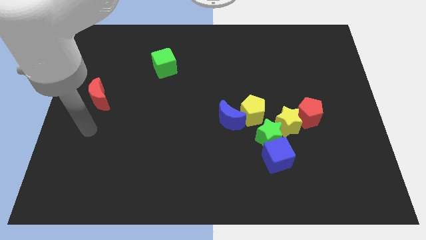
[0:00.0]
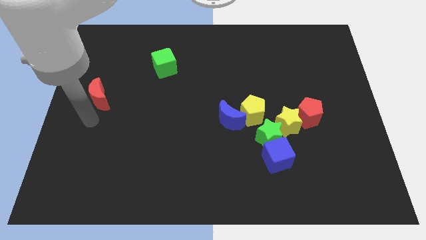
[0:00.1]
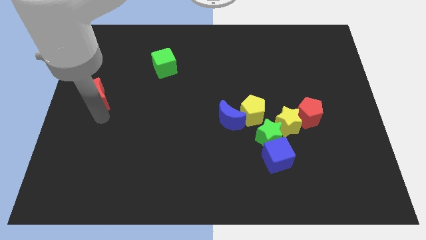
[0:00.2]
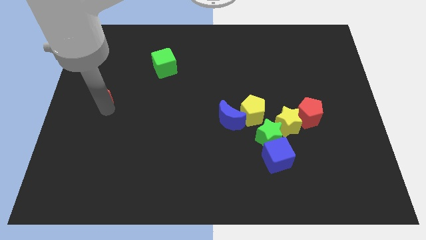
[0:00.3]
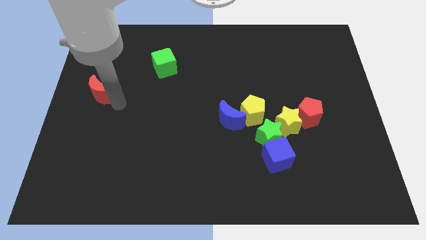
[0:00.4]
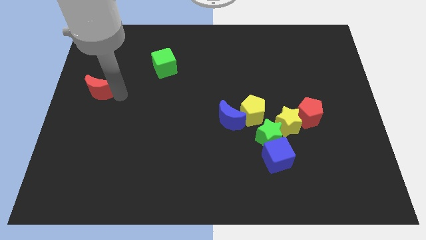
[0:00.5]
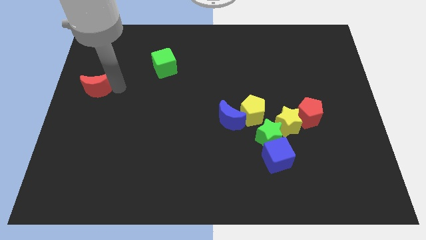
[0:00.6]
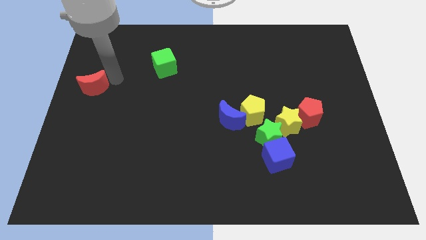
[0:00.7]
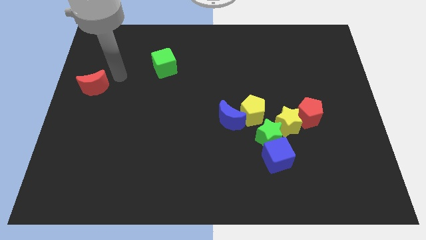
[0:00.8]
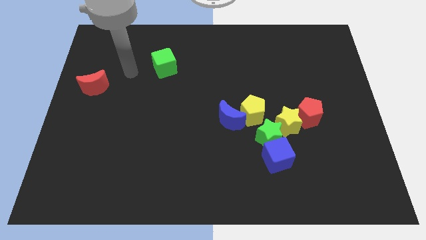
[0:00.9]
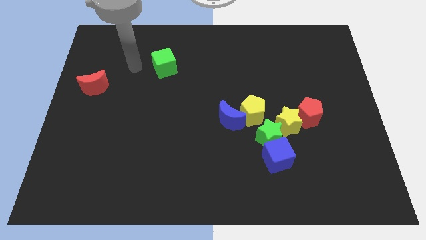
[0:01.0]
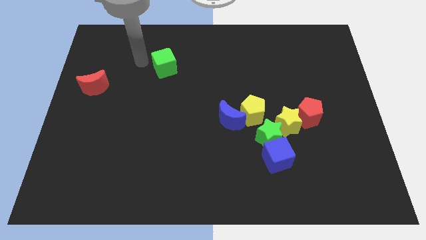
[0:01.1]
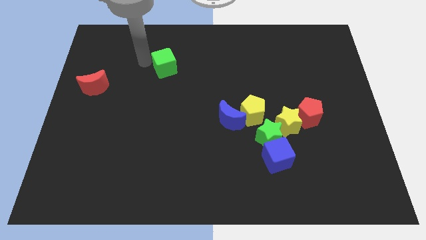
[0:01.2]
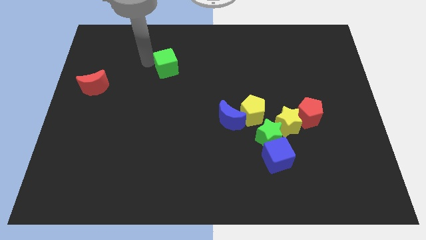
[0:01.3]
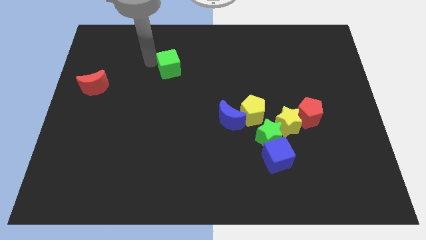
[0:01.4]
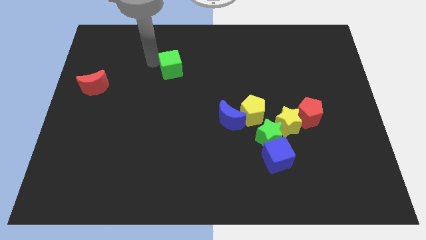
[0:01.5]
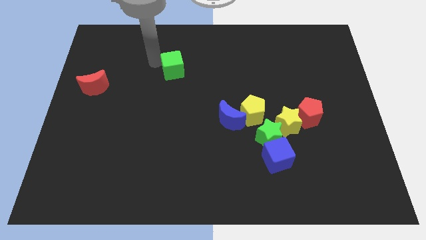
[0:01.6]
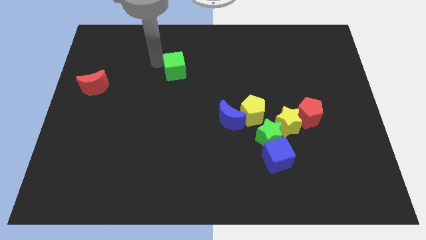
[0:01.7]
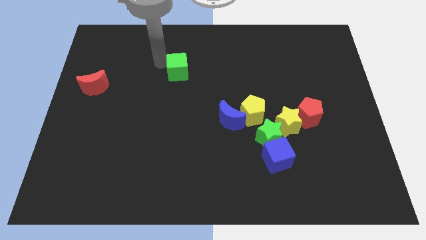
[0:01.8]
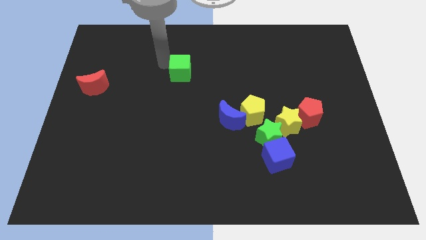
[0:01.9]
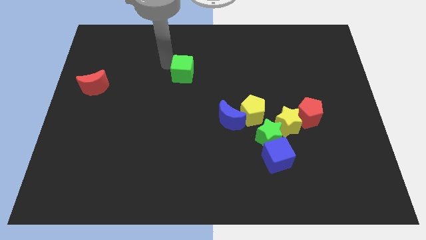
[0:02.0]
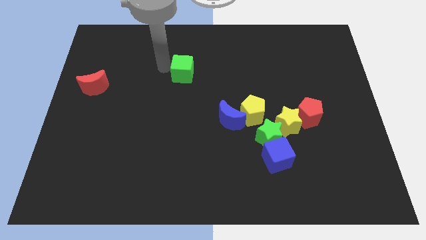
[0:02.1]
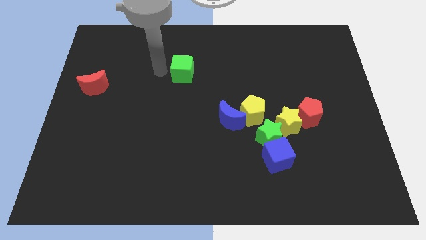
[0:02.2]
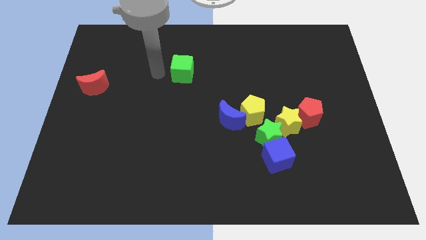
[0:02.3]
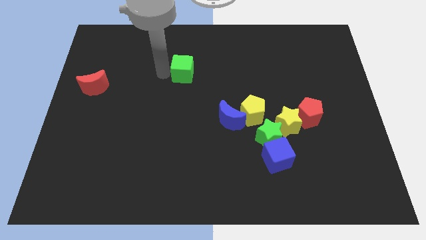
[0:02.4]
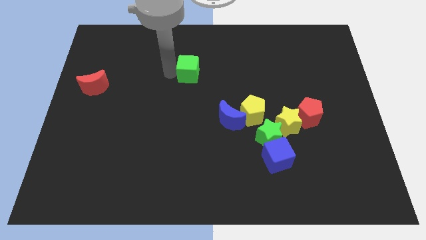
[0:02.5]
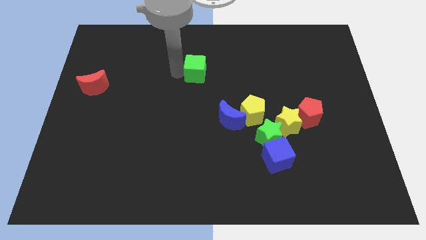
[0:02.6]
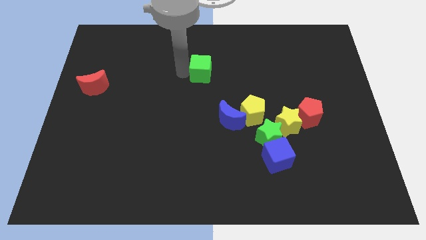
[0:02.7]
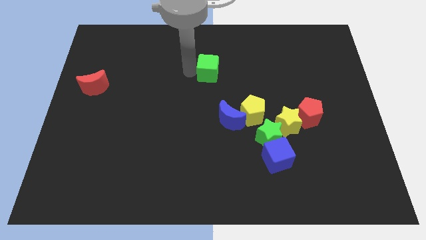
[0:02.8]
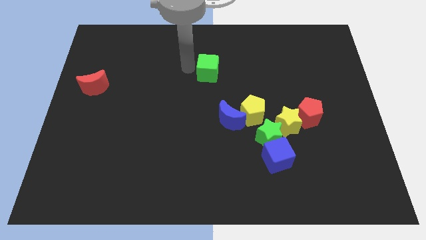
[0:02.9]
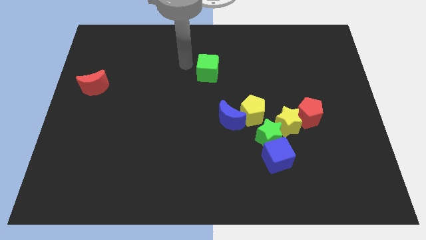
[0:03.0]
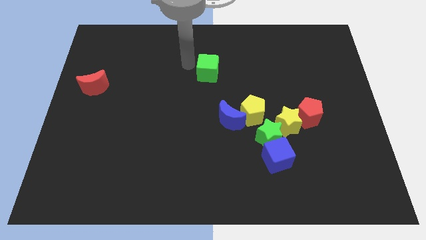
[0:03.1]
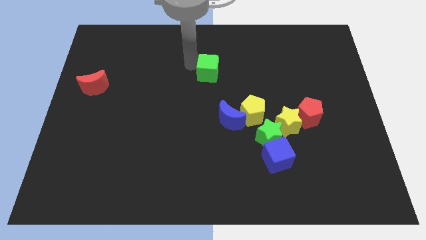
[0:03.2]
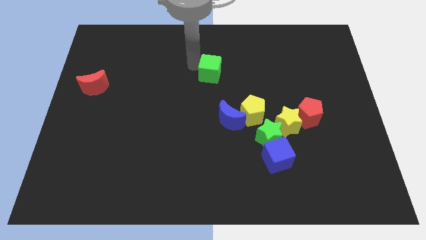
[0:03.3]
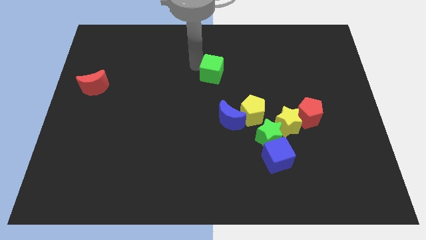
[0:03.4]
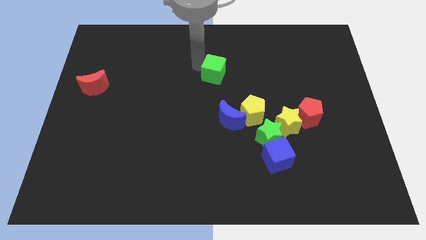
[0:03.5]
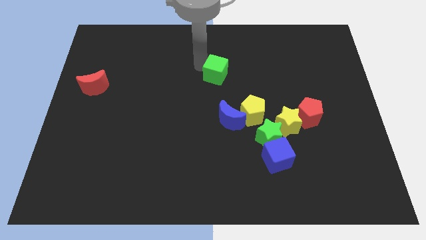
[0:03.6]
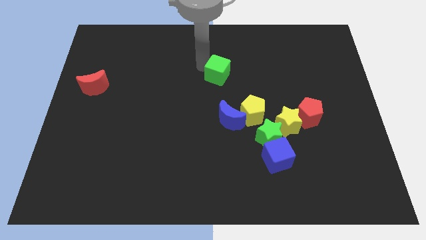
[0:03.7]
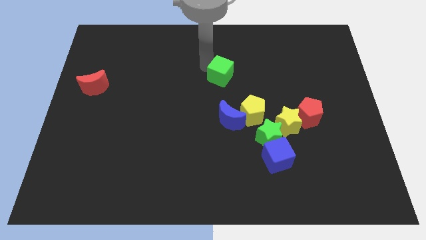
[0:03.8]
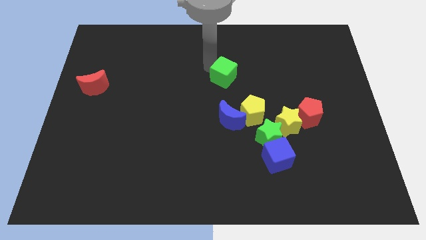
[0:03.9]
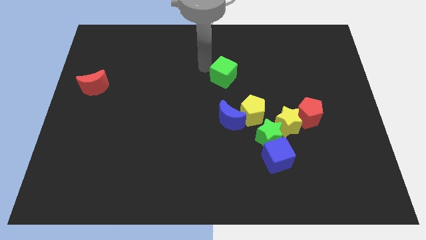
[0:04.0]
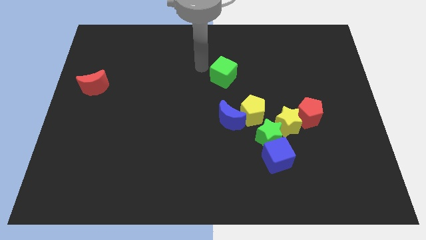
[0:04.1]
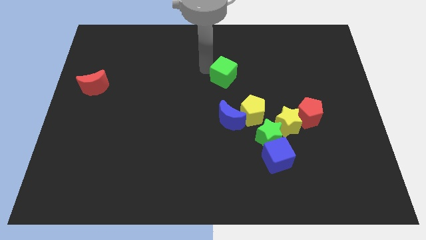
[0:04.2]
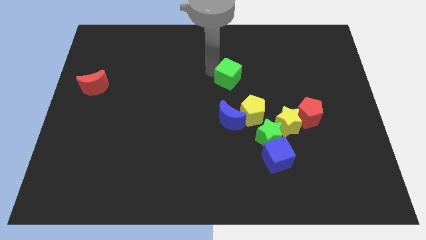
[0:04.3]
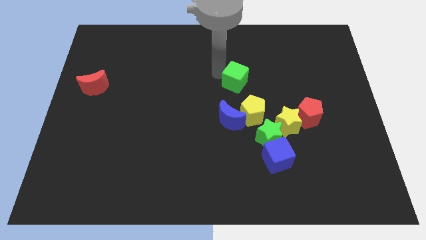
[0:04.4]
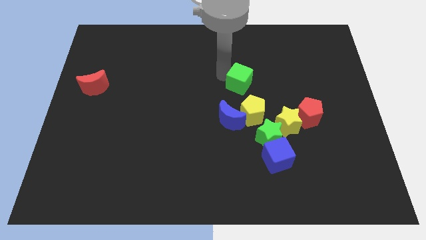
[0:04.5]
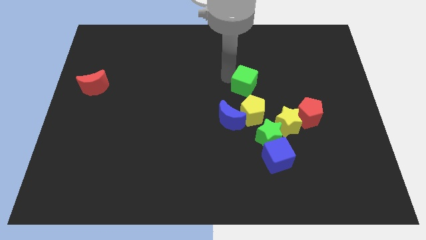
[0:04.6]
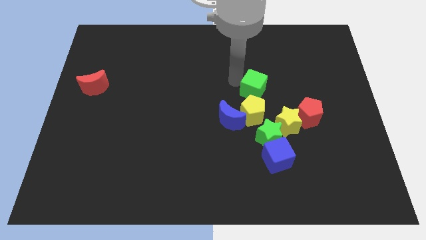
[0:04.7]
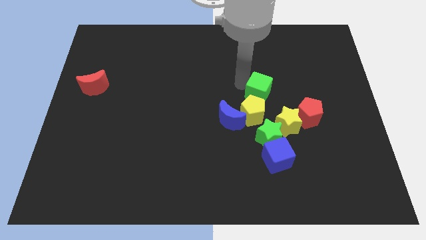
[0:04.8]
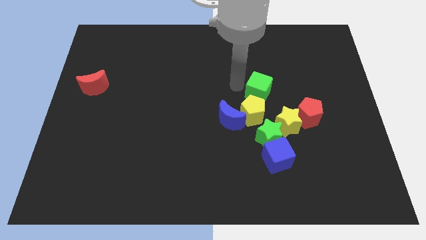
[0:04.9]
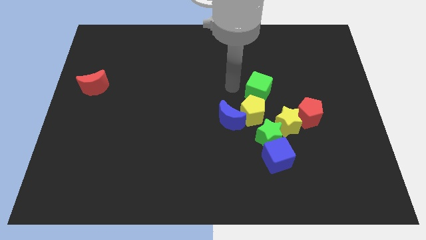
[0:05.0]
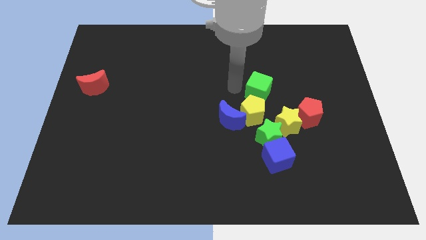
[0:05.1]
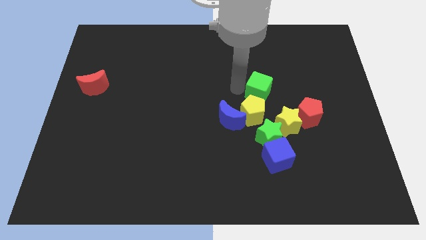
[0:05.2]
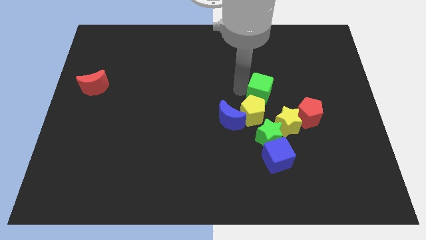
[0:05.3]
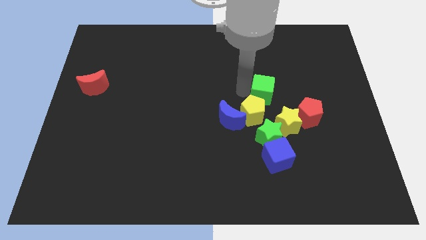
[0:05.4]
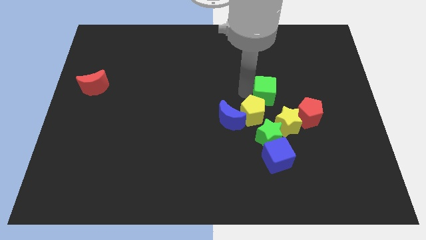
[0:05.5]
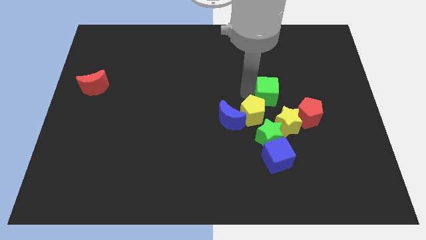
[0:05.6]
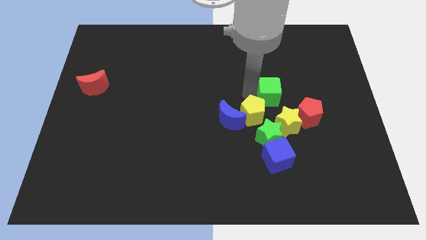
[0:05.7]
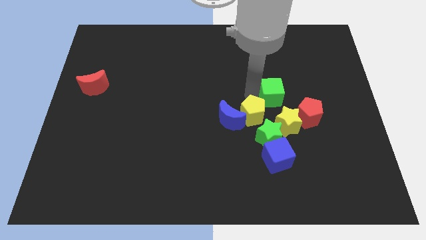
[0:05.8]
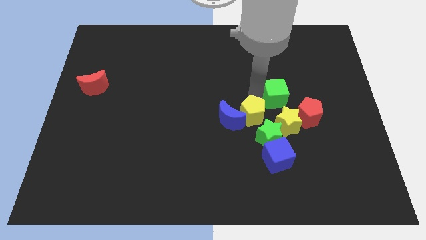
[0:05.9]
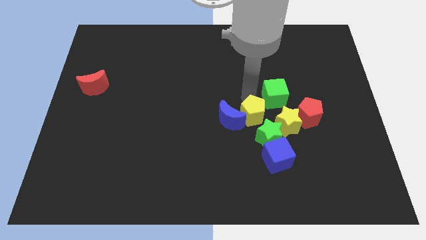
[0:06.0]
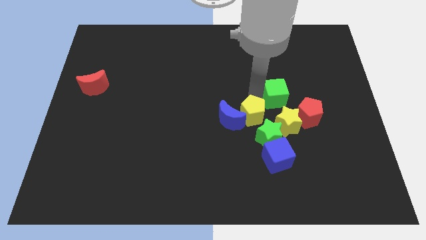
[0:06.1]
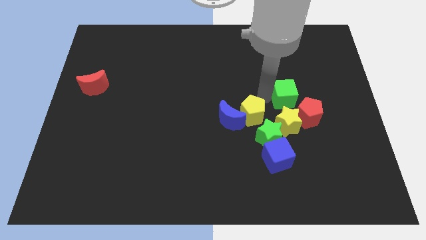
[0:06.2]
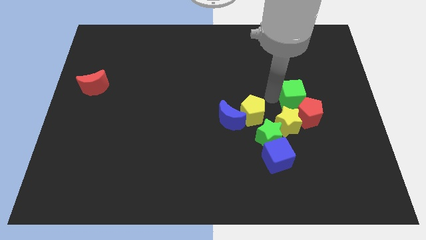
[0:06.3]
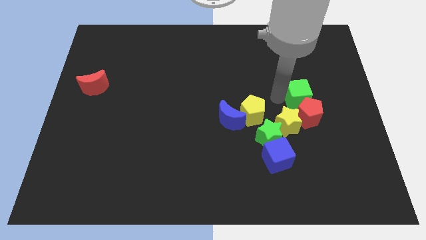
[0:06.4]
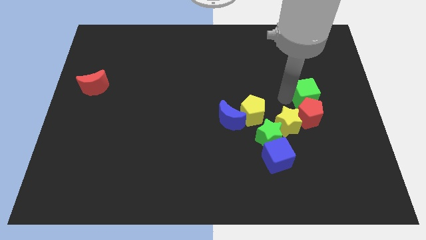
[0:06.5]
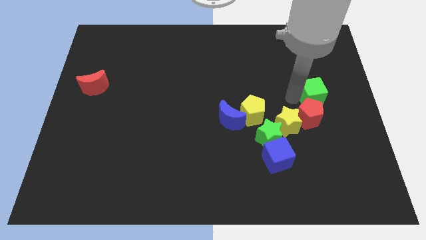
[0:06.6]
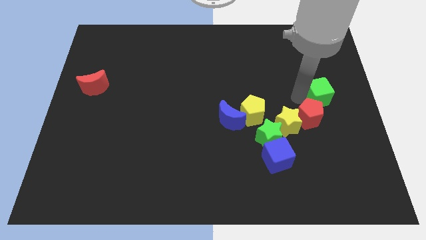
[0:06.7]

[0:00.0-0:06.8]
move the green cube to the center right

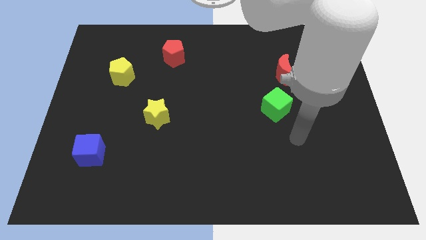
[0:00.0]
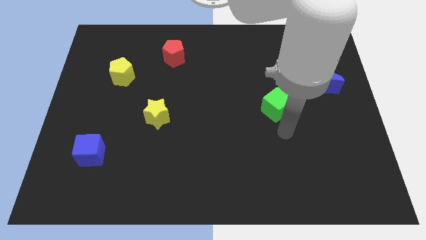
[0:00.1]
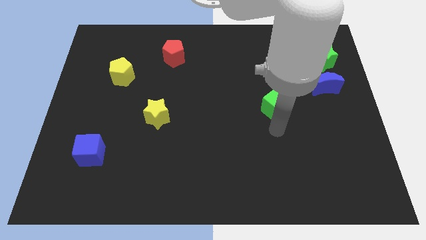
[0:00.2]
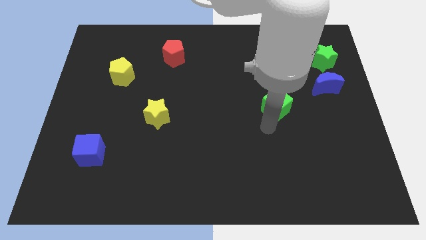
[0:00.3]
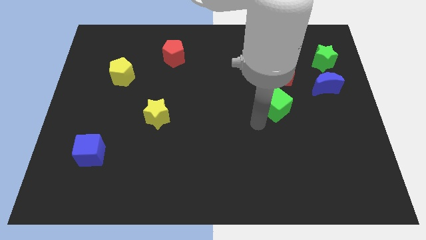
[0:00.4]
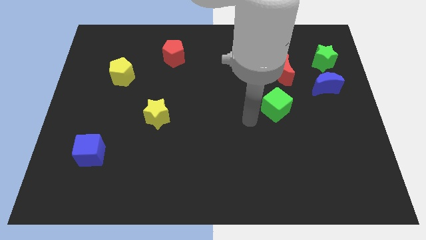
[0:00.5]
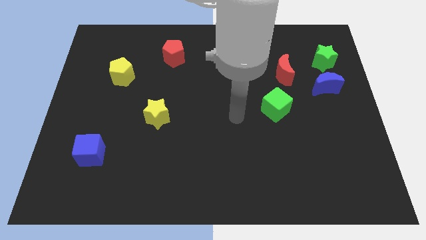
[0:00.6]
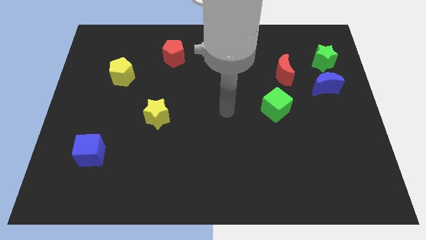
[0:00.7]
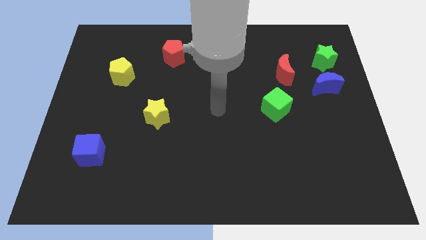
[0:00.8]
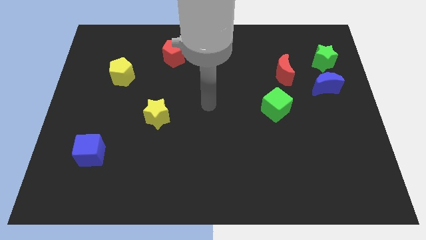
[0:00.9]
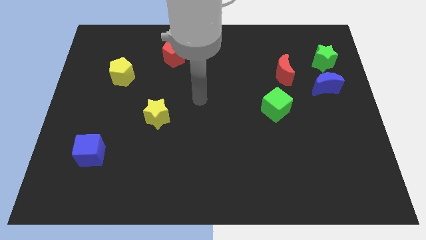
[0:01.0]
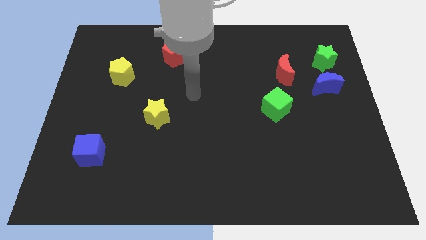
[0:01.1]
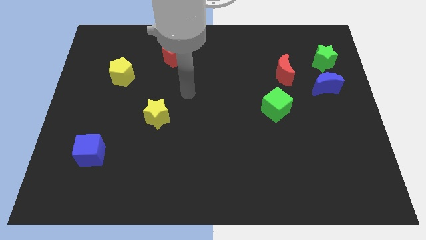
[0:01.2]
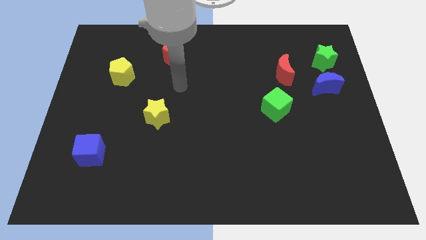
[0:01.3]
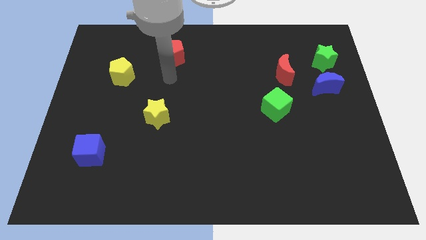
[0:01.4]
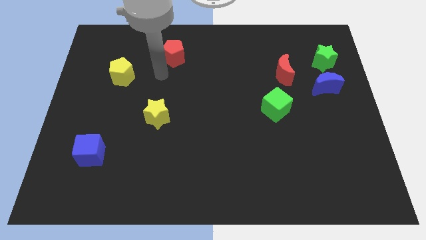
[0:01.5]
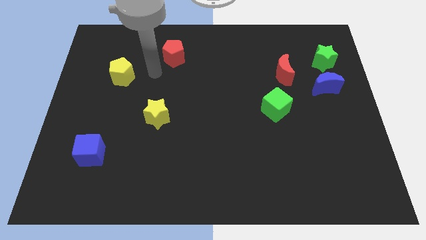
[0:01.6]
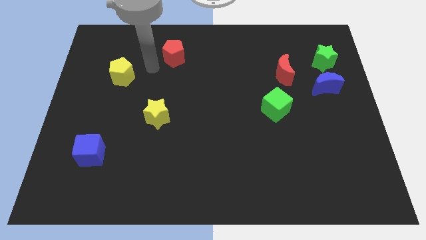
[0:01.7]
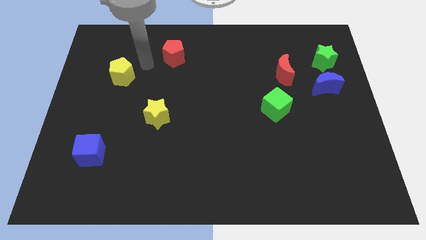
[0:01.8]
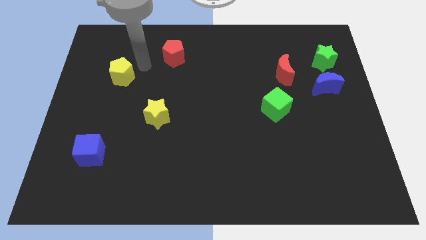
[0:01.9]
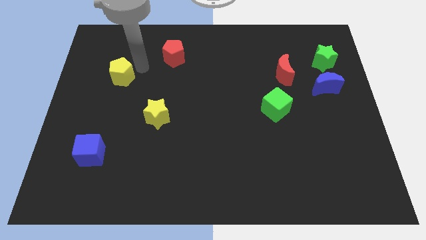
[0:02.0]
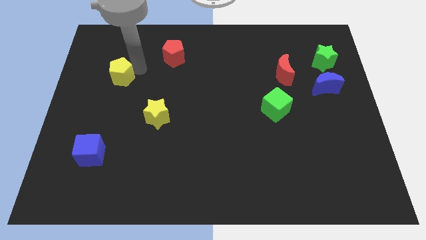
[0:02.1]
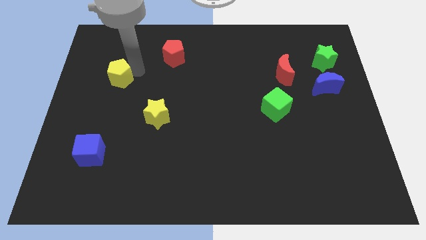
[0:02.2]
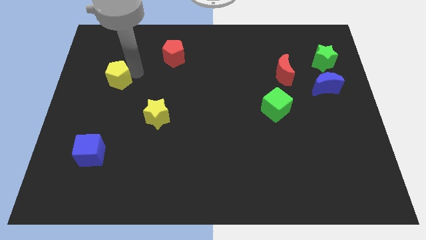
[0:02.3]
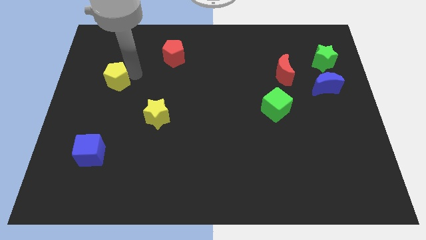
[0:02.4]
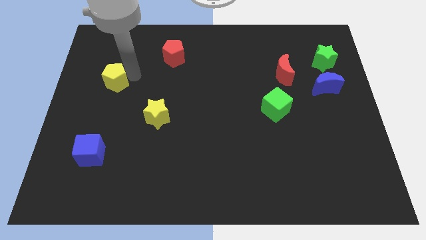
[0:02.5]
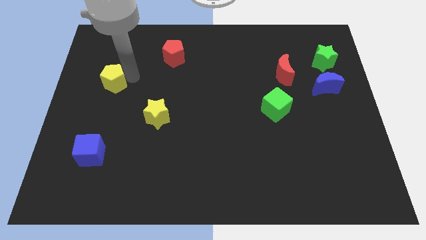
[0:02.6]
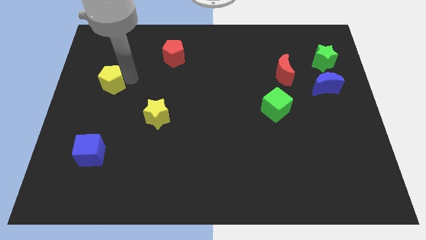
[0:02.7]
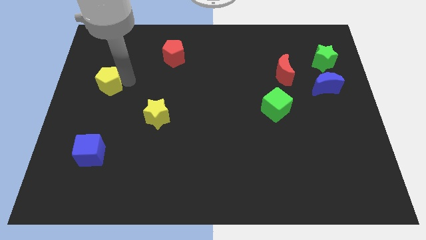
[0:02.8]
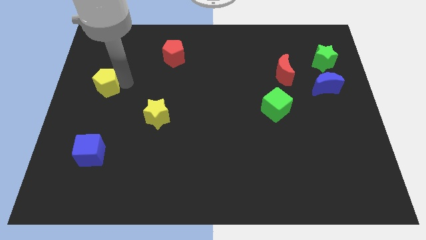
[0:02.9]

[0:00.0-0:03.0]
push the yellow pentagon to the left side
